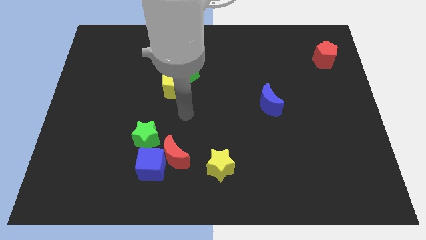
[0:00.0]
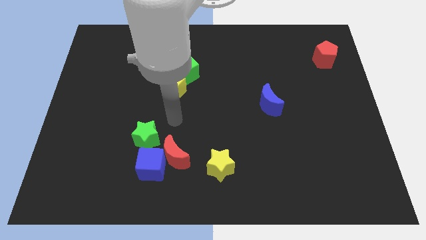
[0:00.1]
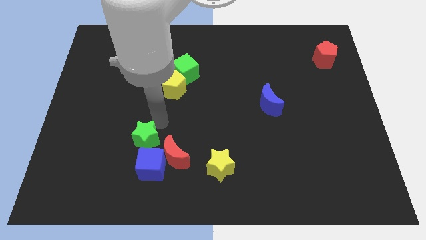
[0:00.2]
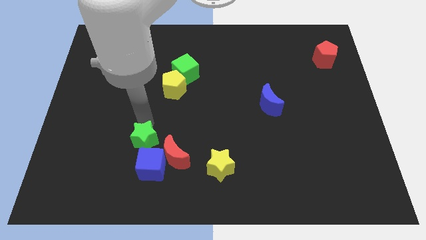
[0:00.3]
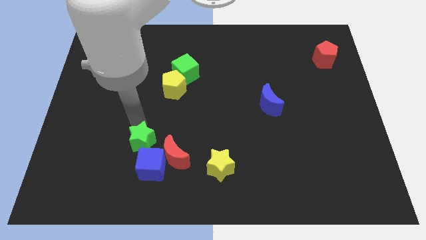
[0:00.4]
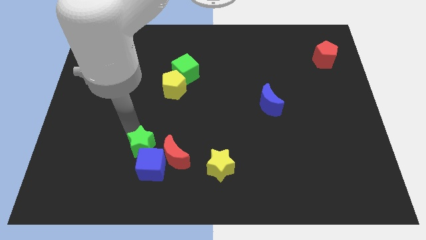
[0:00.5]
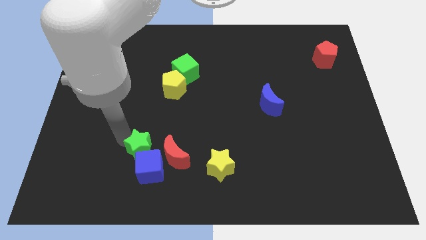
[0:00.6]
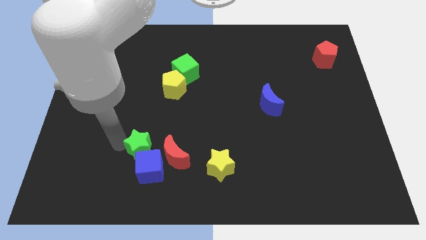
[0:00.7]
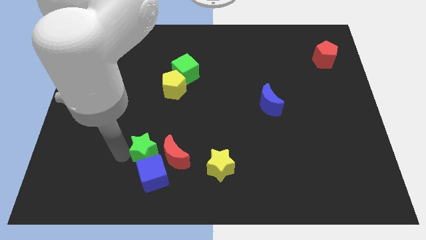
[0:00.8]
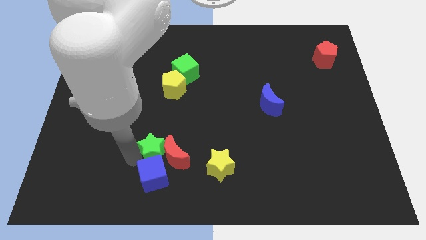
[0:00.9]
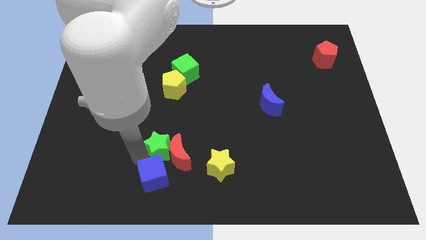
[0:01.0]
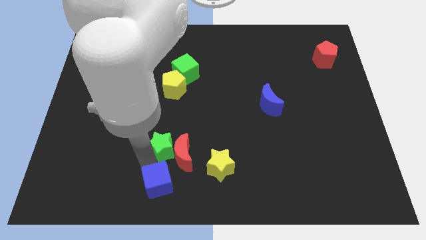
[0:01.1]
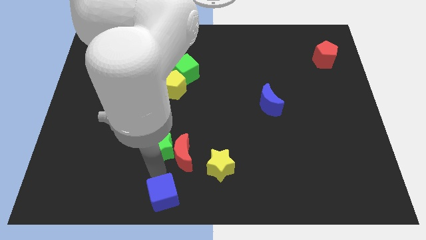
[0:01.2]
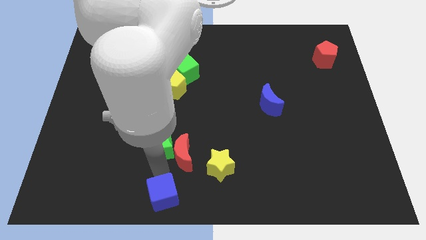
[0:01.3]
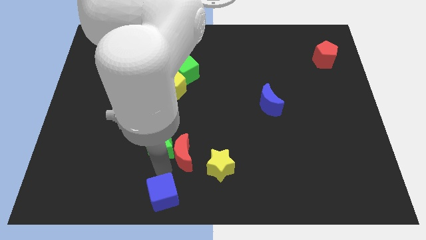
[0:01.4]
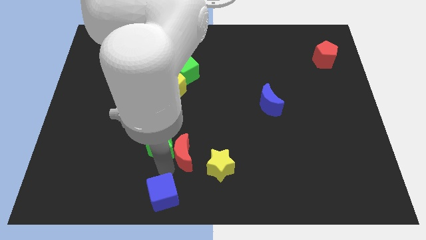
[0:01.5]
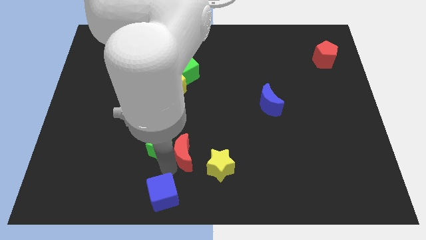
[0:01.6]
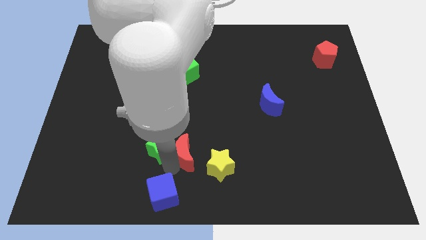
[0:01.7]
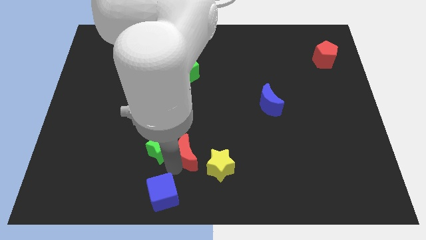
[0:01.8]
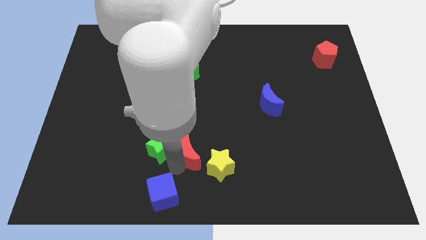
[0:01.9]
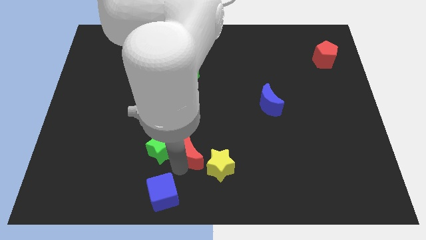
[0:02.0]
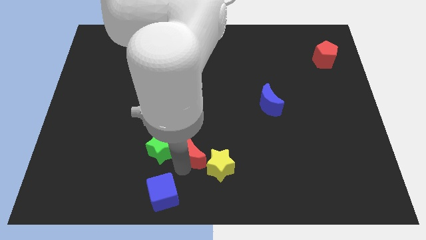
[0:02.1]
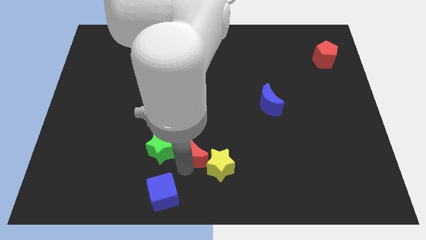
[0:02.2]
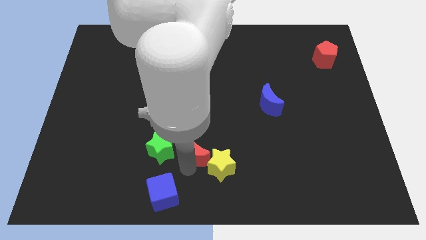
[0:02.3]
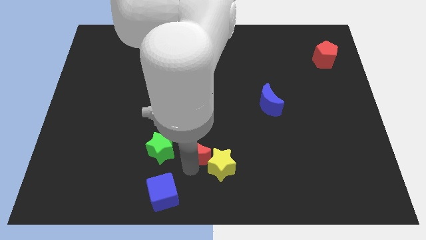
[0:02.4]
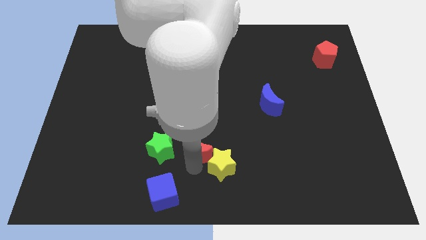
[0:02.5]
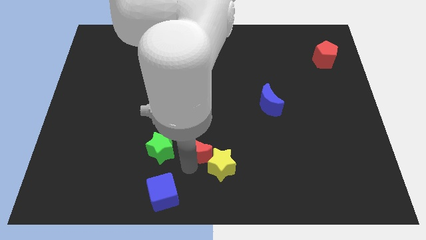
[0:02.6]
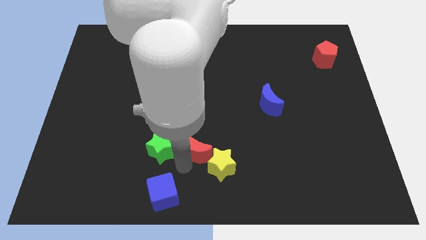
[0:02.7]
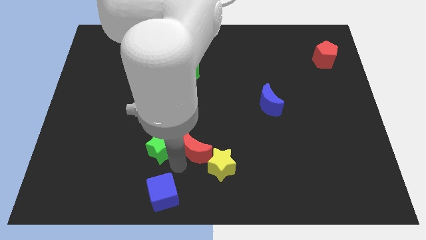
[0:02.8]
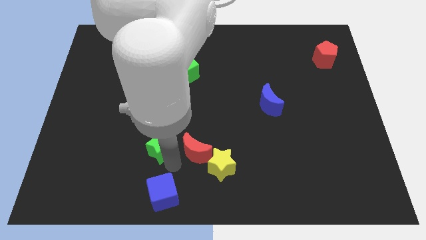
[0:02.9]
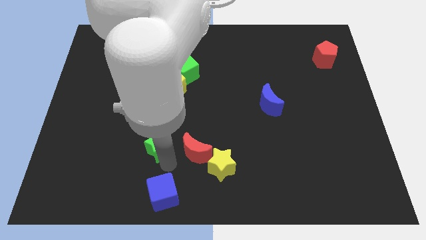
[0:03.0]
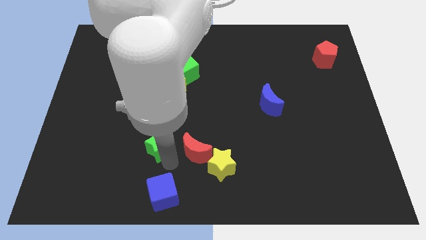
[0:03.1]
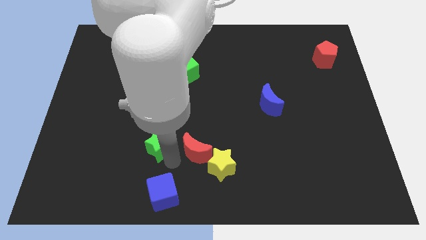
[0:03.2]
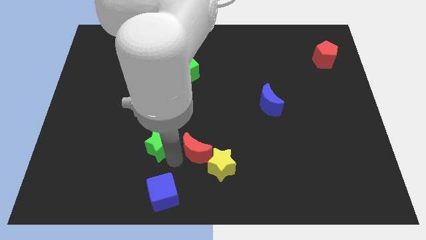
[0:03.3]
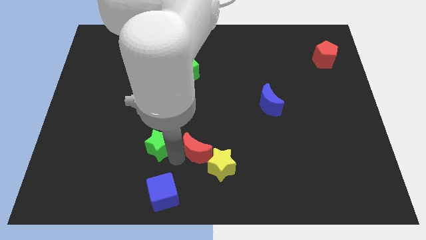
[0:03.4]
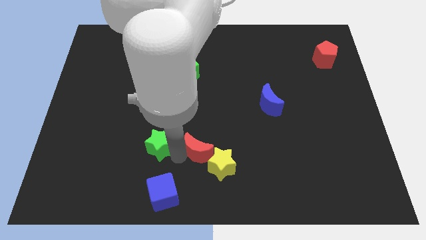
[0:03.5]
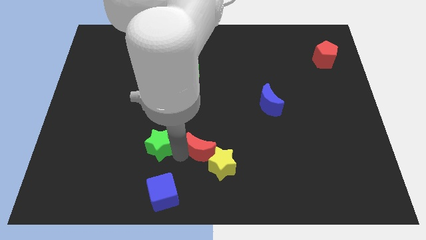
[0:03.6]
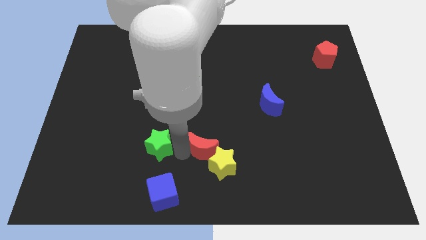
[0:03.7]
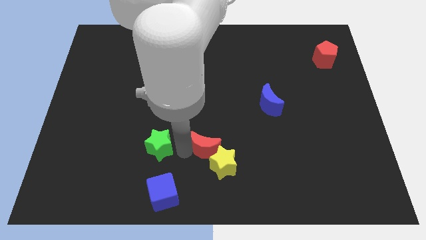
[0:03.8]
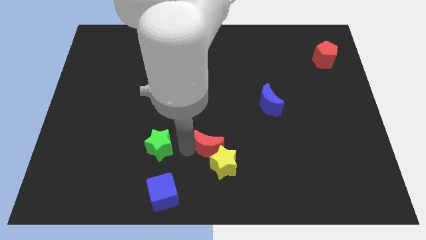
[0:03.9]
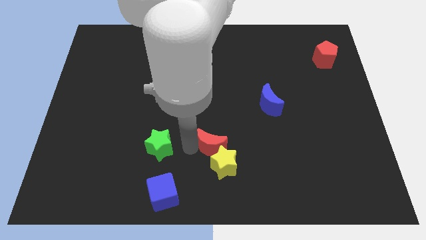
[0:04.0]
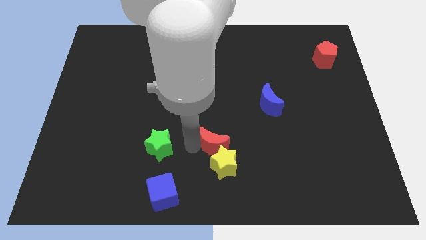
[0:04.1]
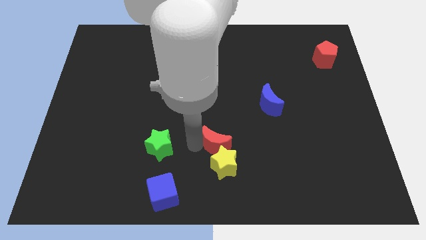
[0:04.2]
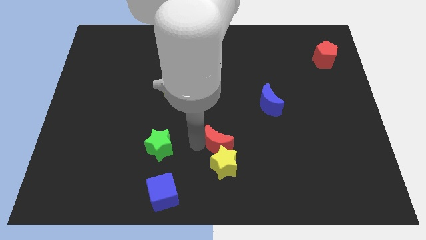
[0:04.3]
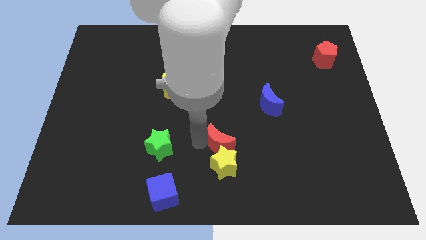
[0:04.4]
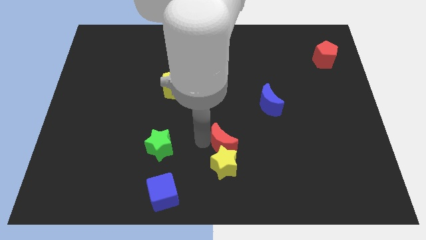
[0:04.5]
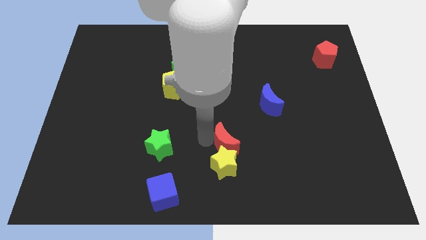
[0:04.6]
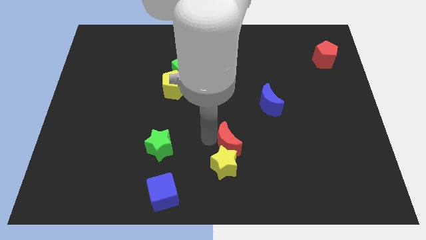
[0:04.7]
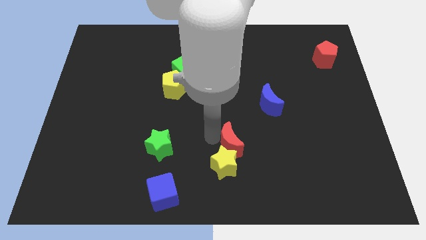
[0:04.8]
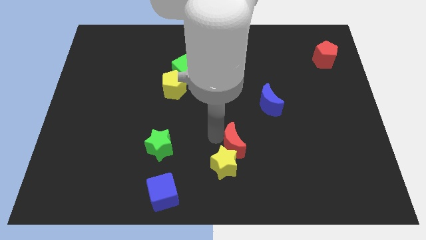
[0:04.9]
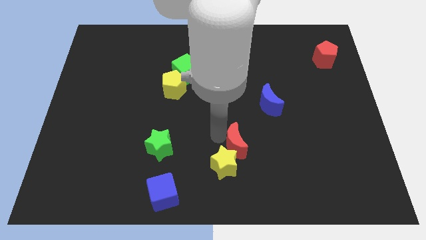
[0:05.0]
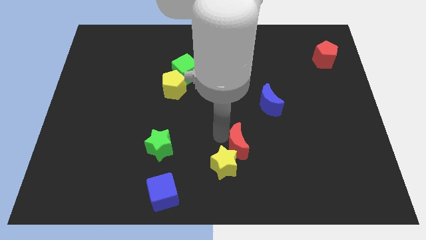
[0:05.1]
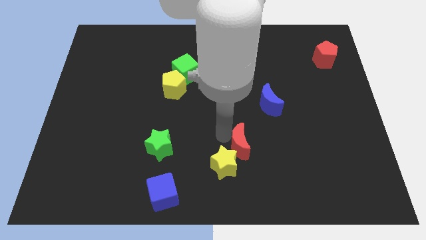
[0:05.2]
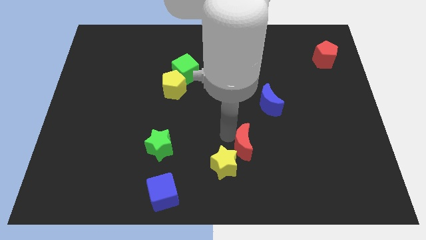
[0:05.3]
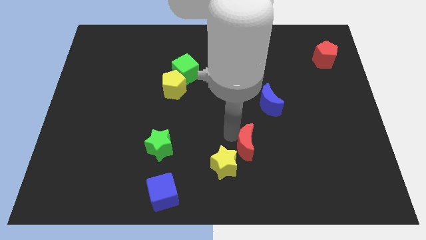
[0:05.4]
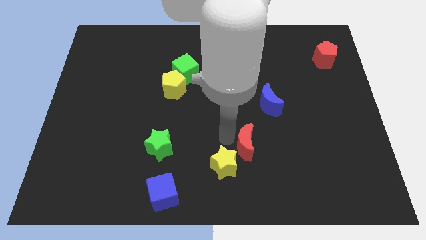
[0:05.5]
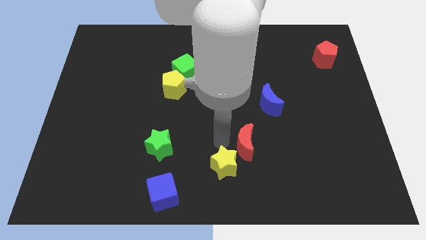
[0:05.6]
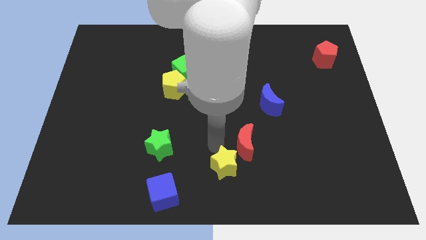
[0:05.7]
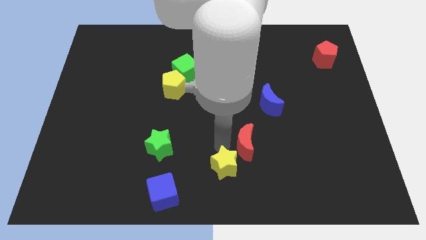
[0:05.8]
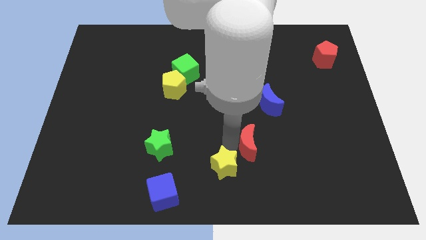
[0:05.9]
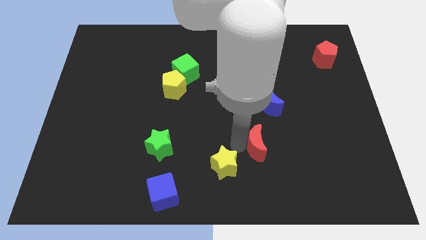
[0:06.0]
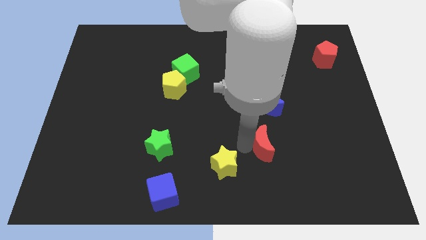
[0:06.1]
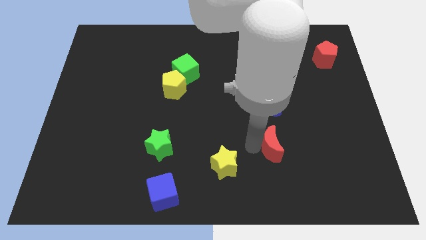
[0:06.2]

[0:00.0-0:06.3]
slide the red moon right

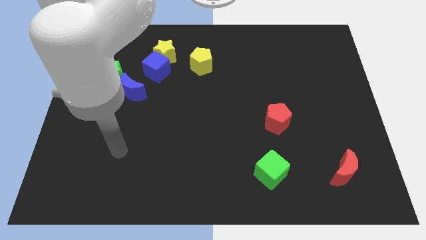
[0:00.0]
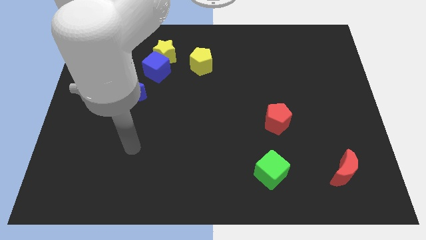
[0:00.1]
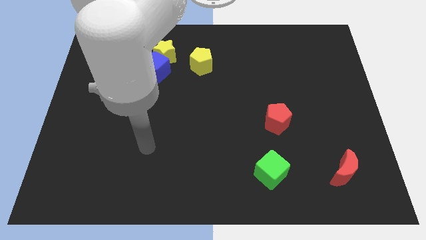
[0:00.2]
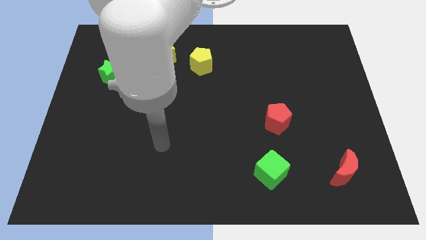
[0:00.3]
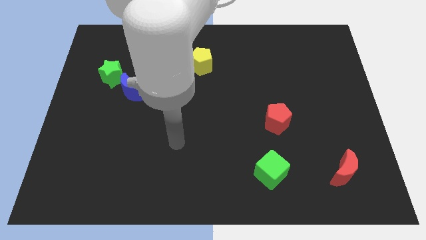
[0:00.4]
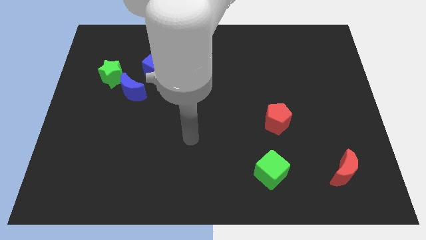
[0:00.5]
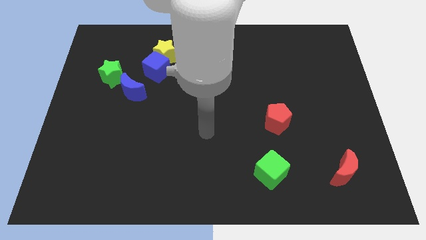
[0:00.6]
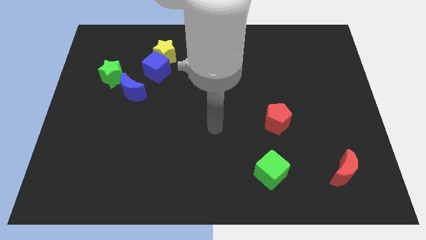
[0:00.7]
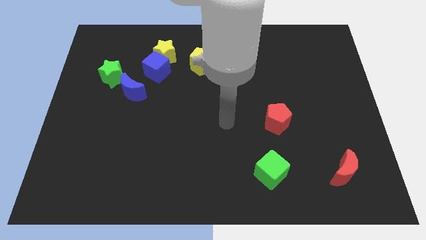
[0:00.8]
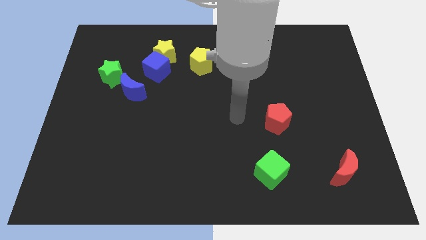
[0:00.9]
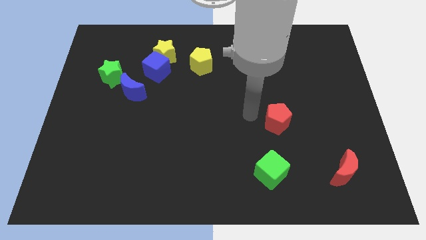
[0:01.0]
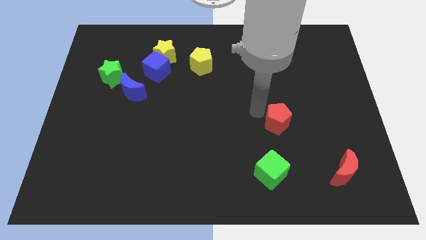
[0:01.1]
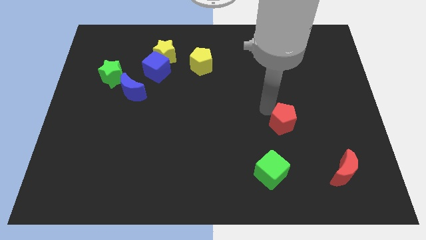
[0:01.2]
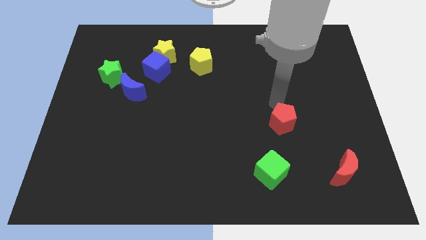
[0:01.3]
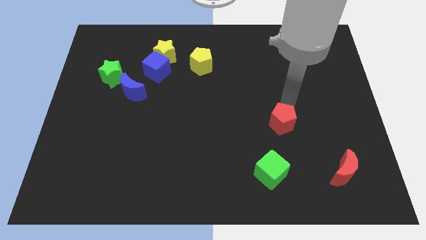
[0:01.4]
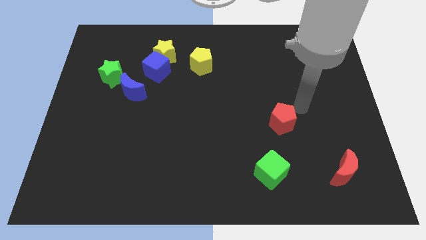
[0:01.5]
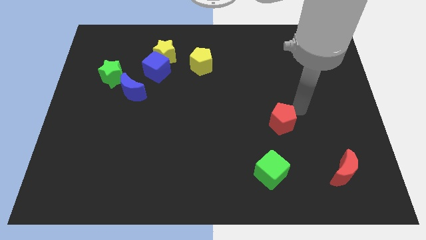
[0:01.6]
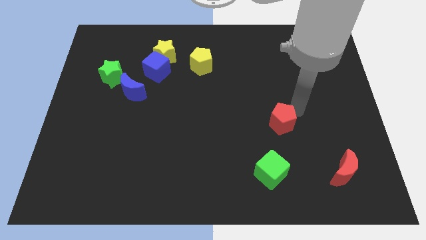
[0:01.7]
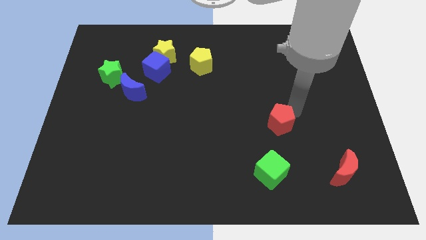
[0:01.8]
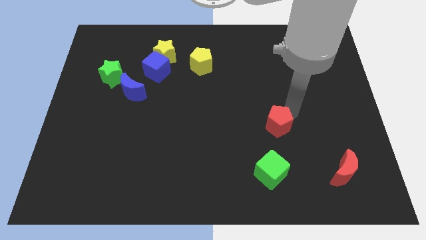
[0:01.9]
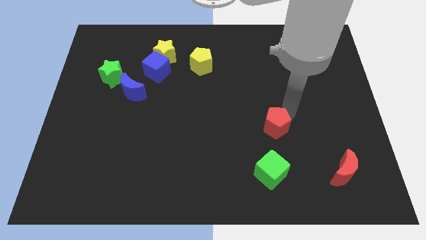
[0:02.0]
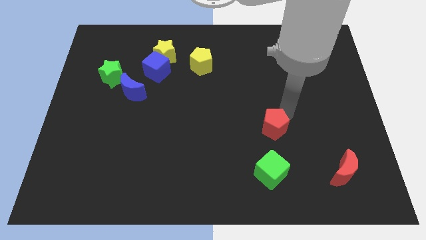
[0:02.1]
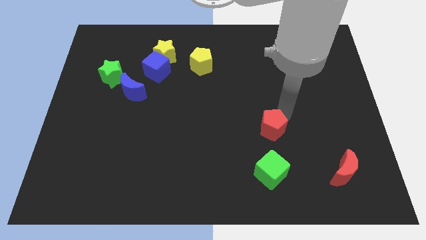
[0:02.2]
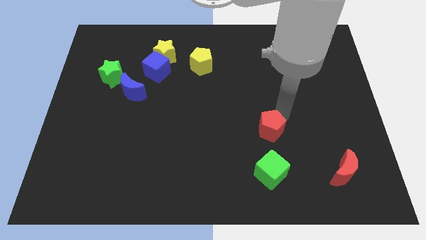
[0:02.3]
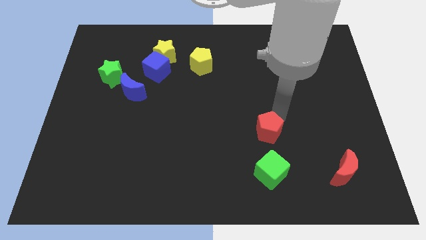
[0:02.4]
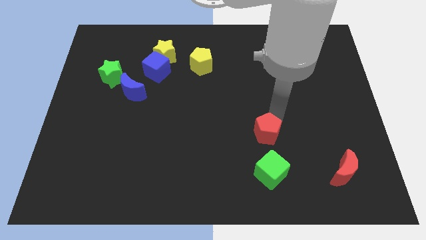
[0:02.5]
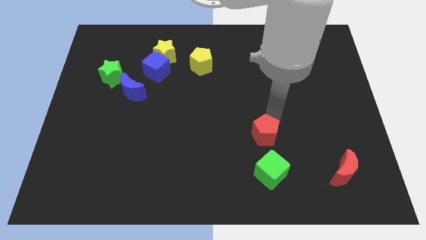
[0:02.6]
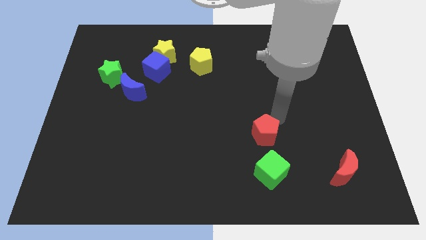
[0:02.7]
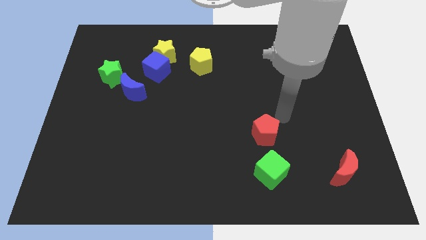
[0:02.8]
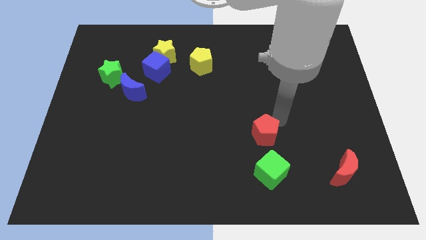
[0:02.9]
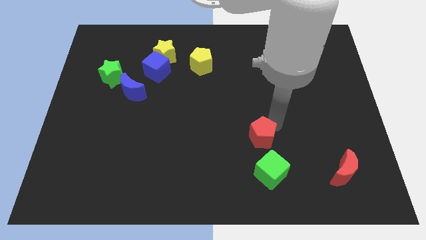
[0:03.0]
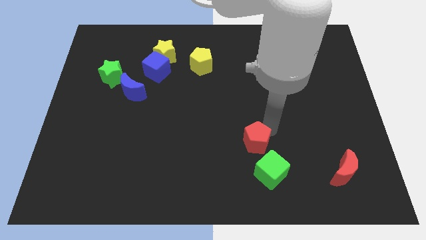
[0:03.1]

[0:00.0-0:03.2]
move the red pentagon diagonally down and to the left somewhat
